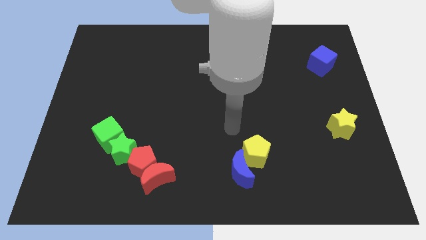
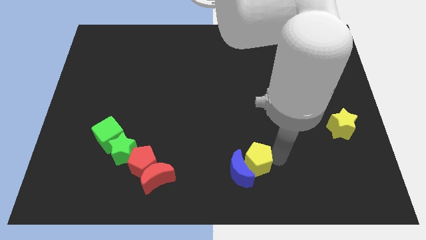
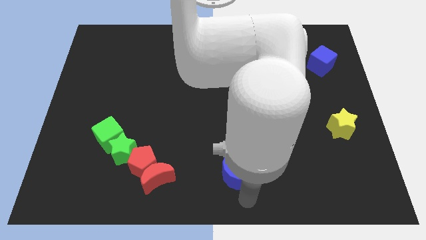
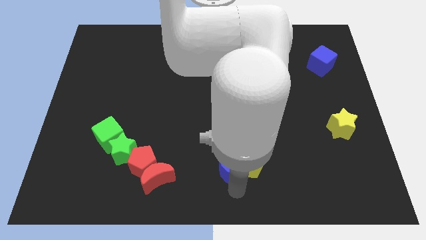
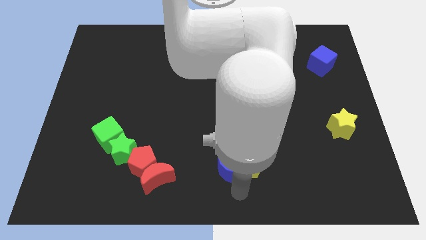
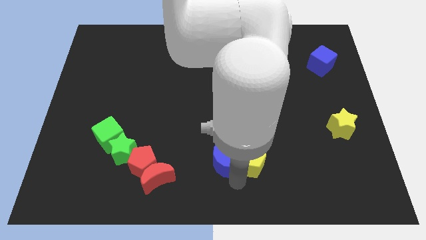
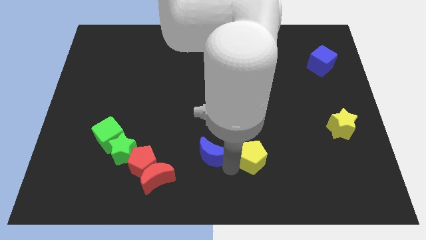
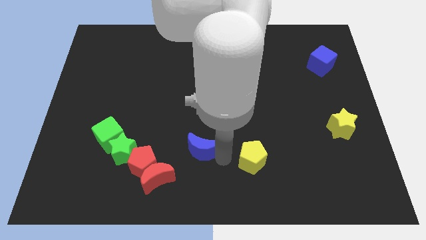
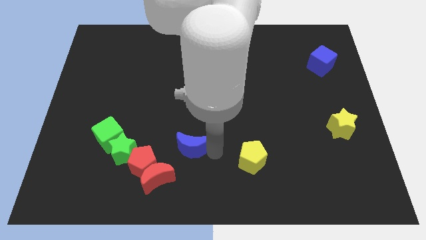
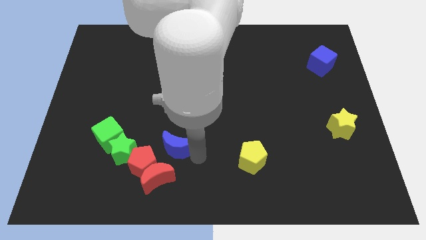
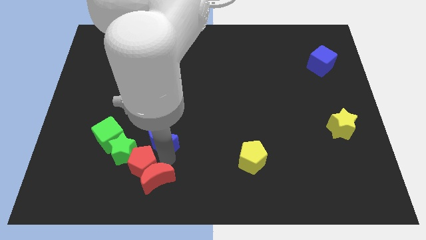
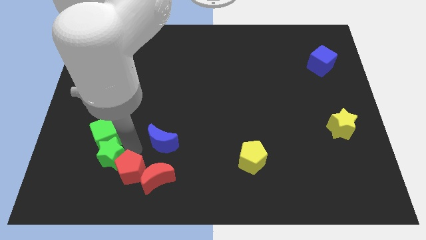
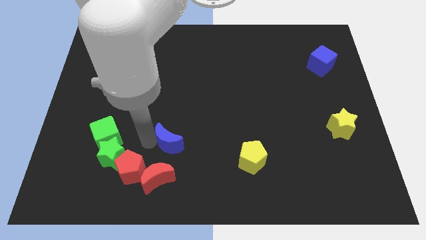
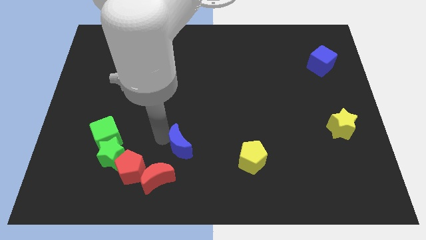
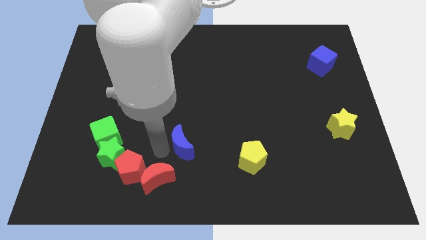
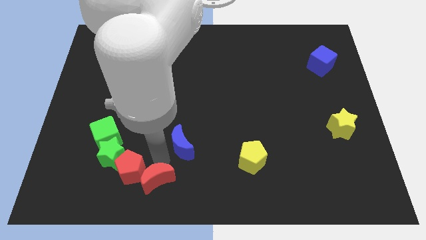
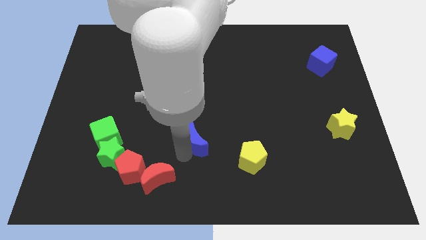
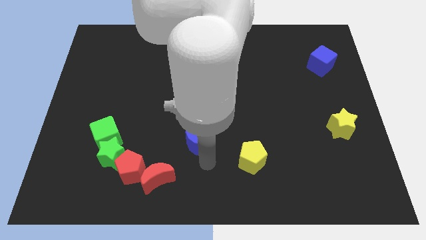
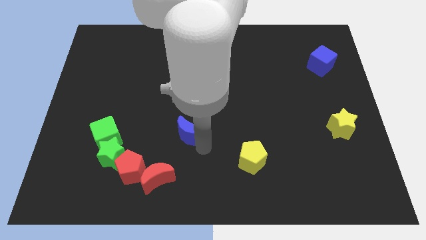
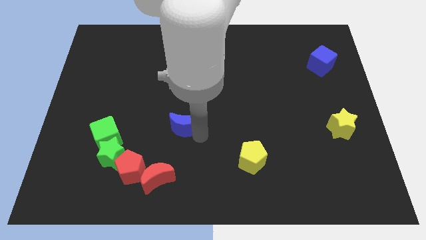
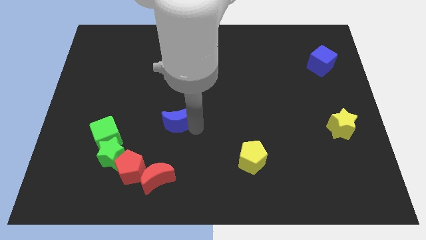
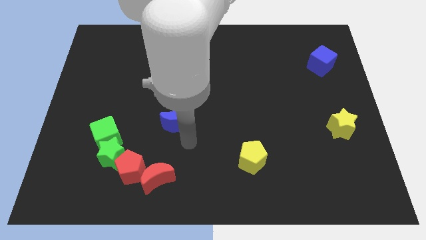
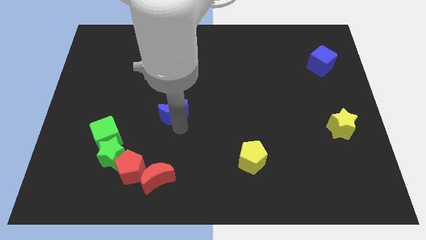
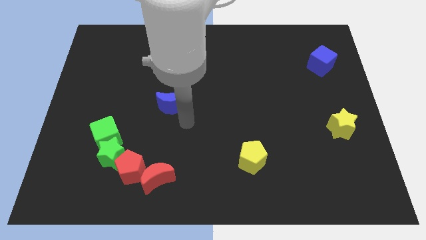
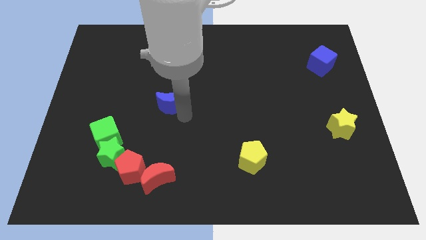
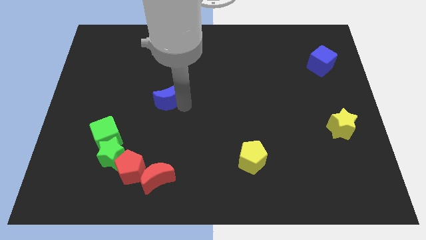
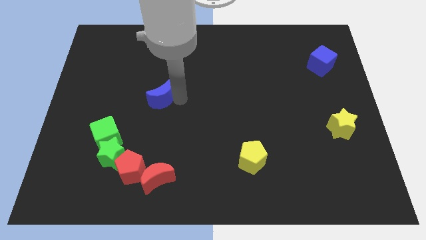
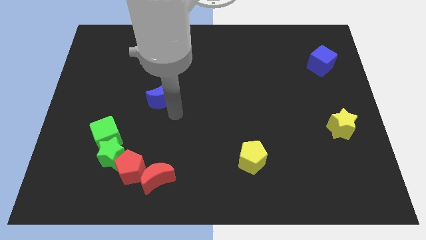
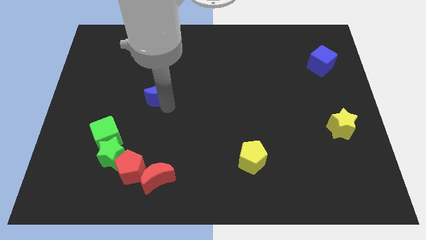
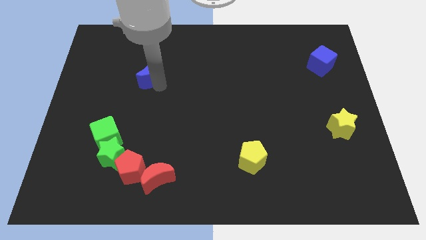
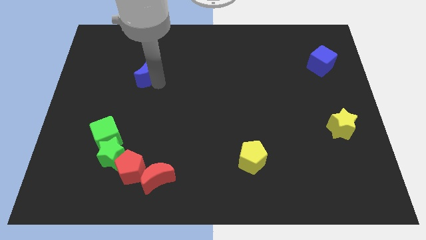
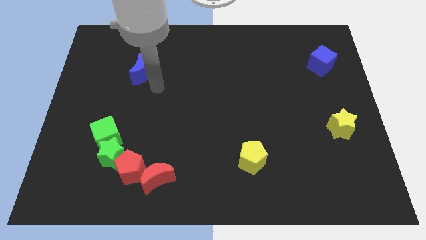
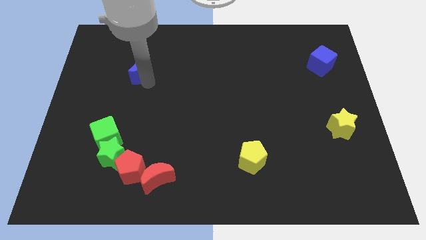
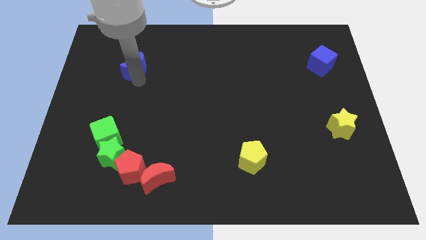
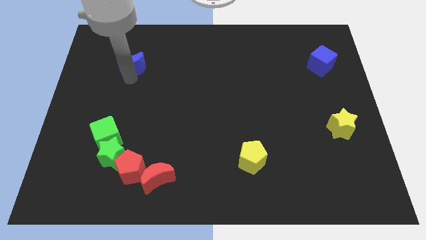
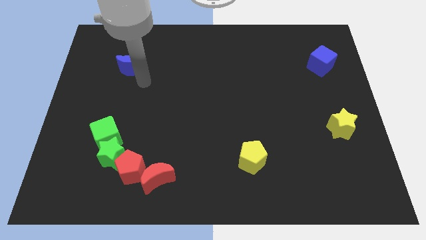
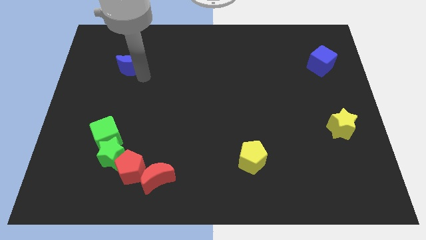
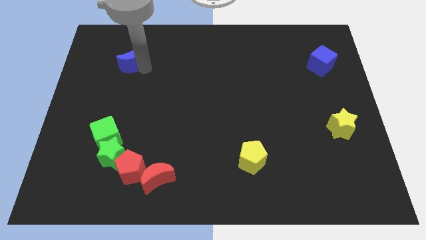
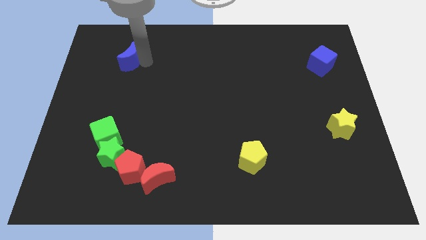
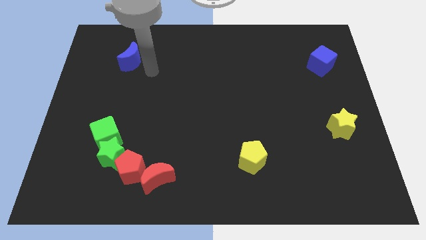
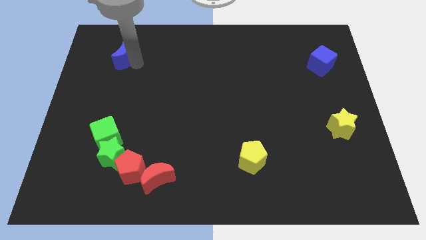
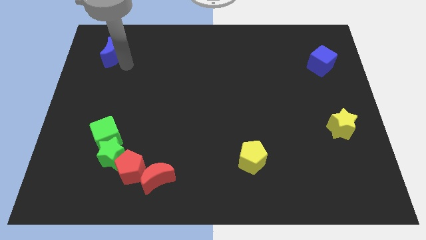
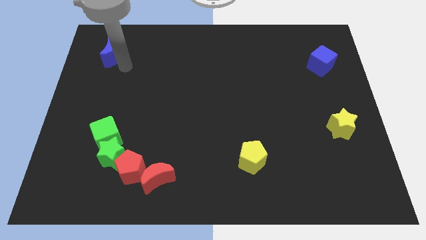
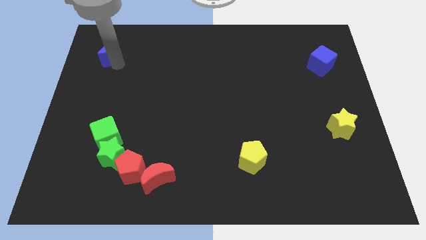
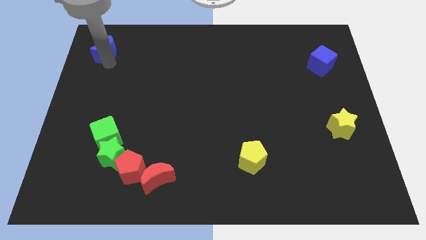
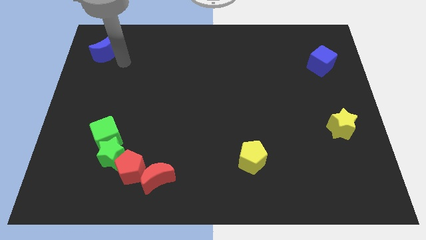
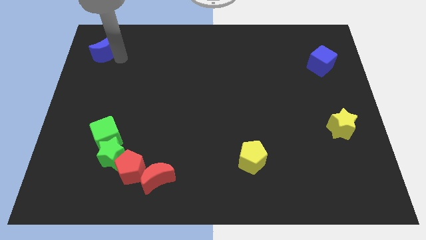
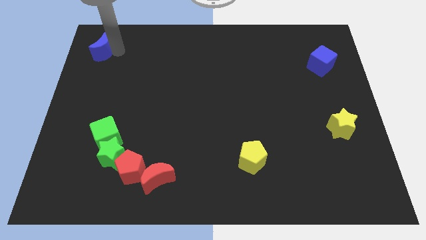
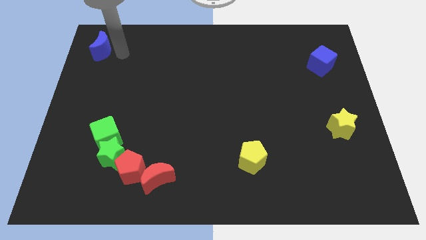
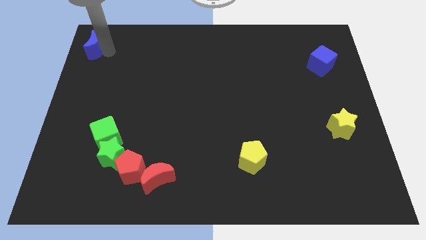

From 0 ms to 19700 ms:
move the blue moon to the upper left corner

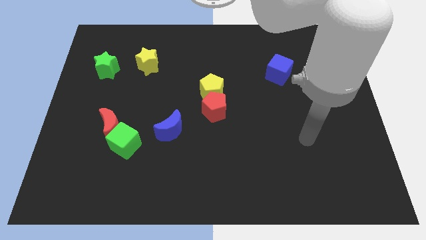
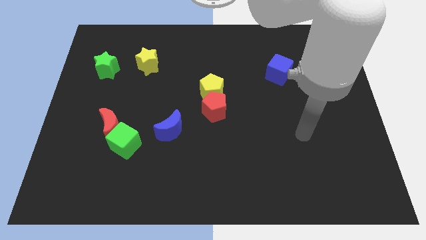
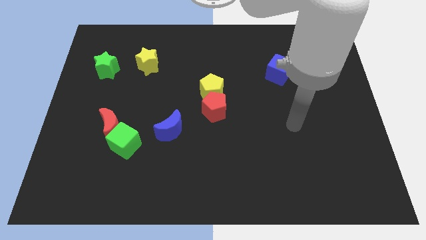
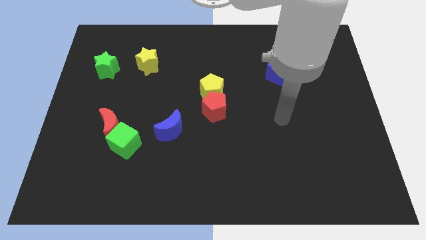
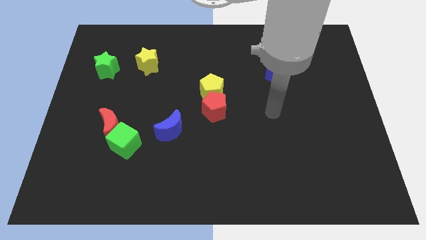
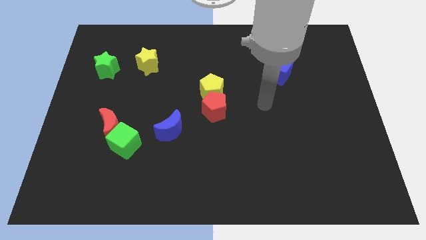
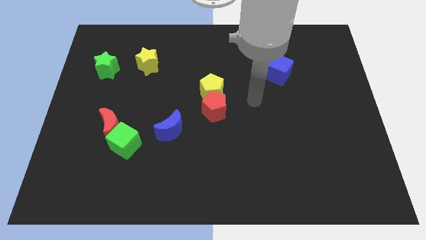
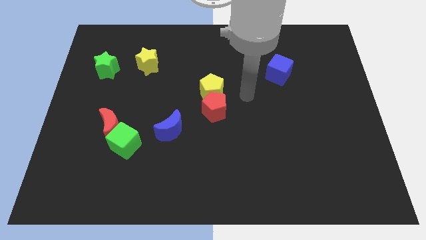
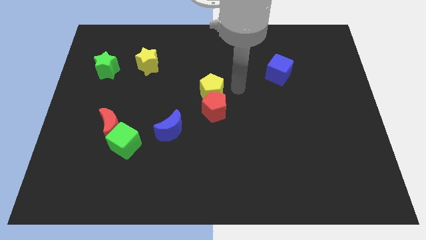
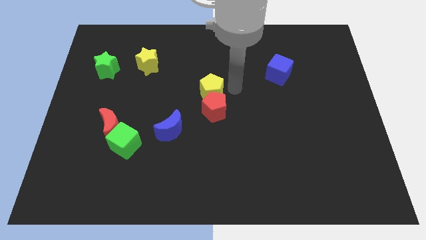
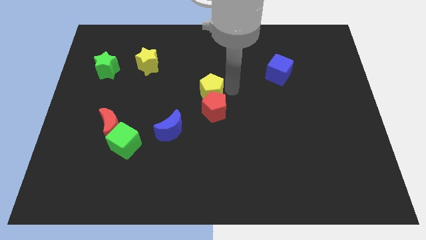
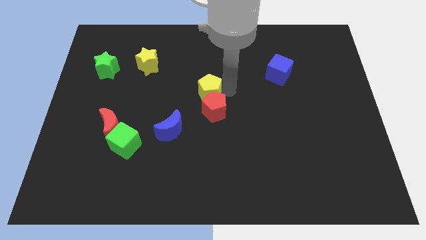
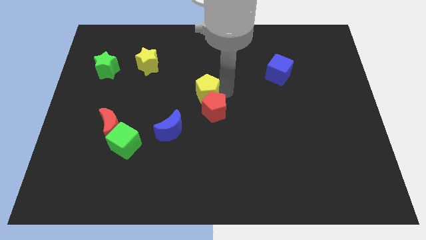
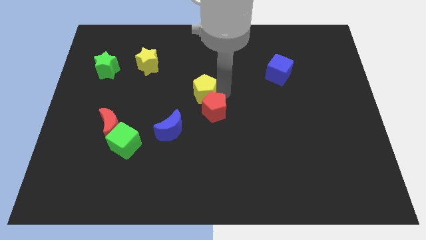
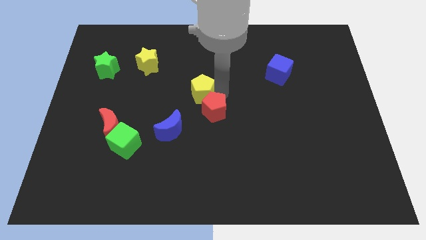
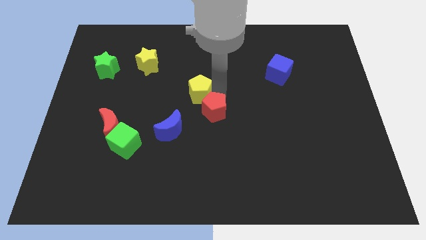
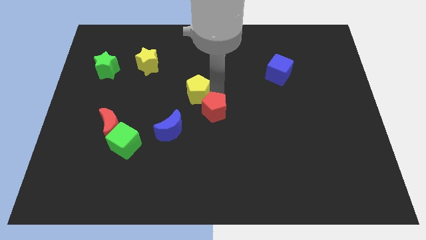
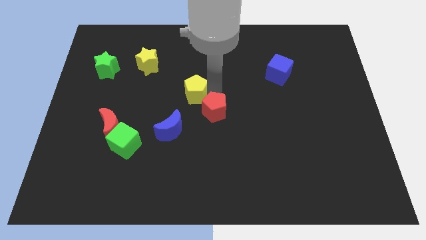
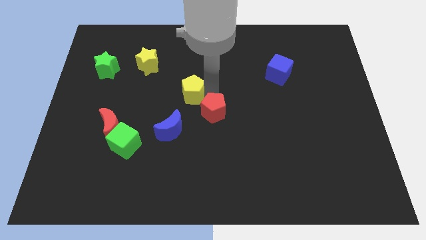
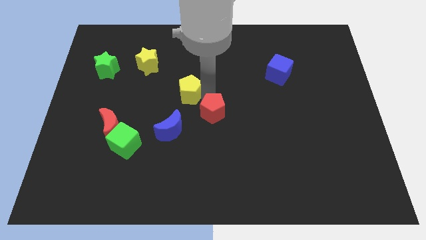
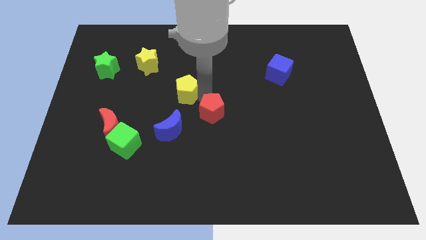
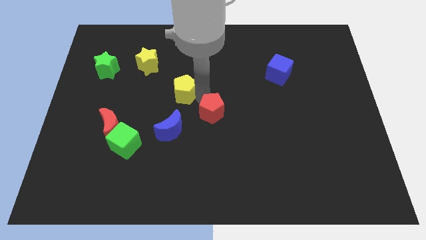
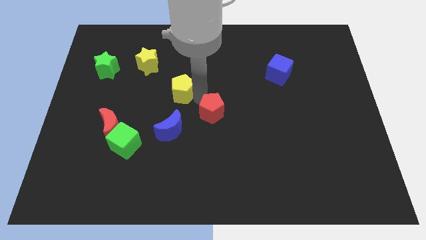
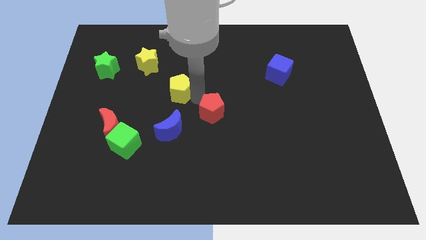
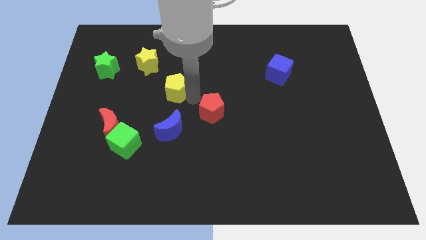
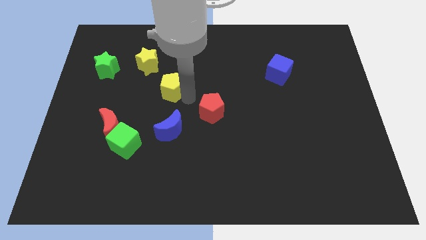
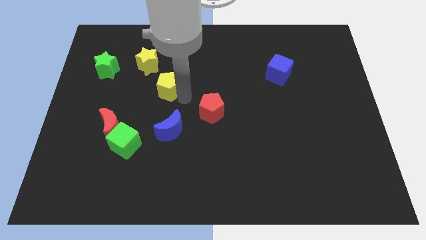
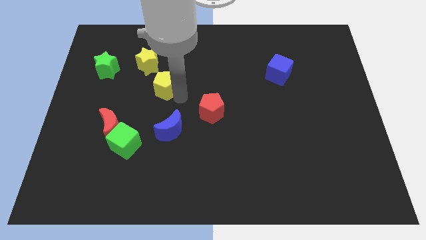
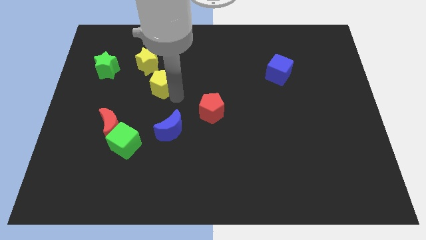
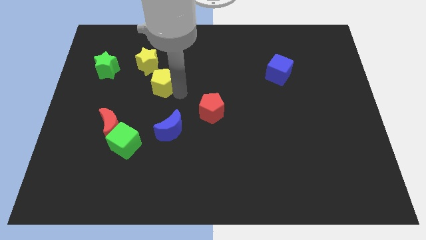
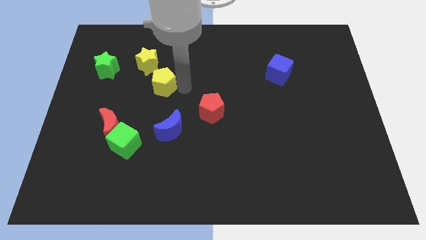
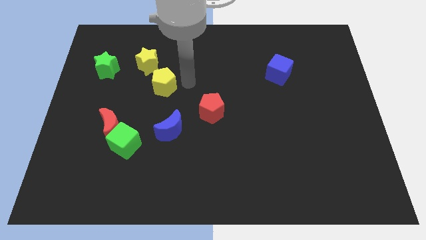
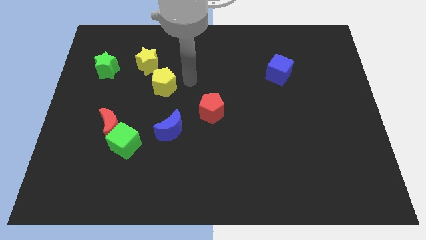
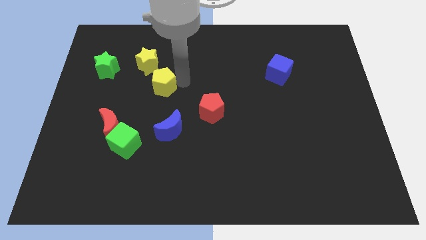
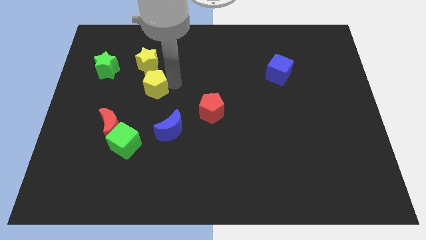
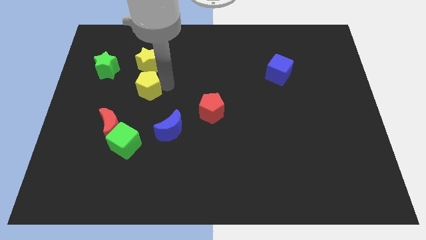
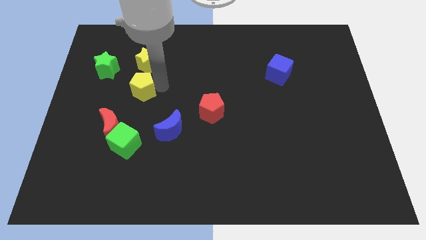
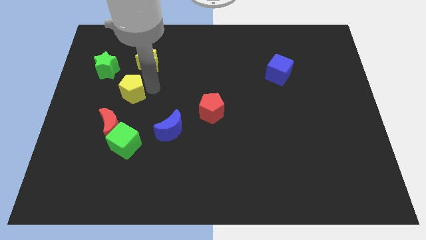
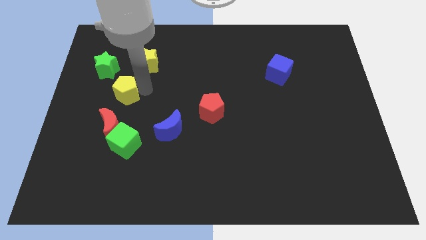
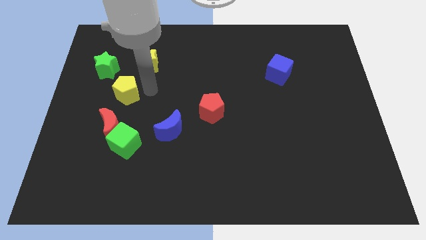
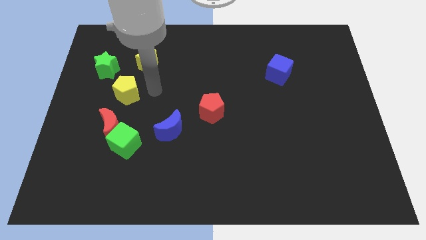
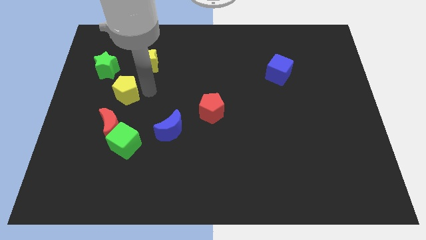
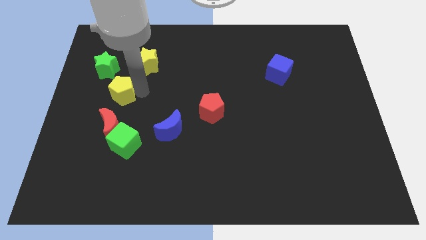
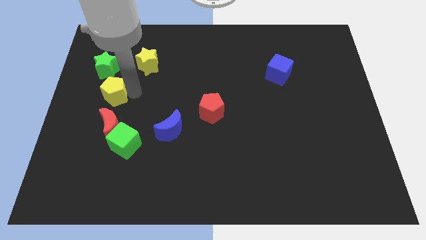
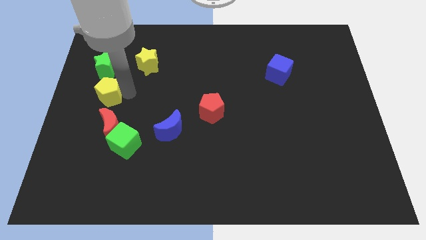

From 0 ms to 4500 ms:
move the yellow pentagon to the center left
